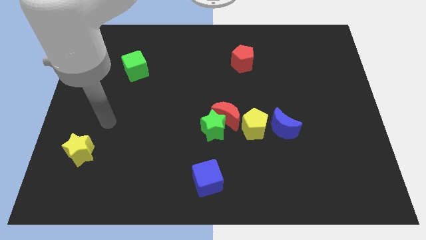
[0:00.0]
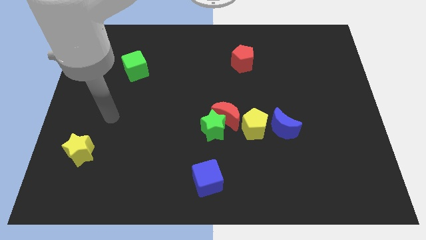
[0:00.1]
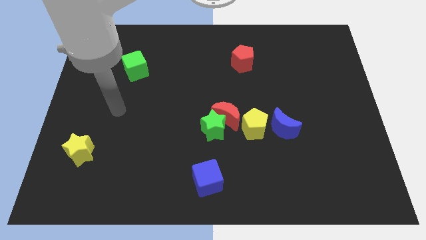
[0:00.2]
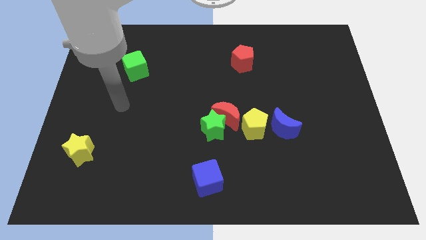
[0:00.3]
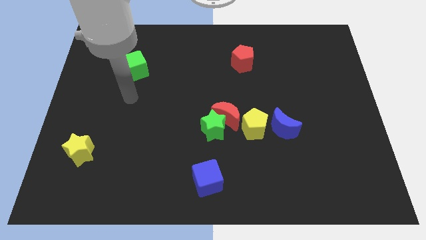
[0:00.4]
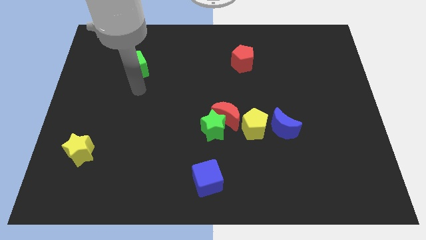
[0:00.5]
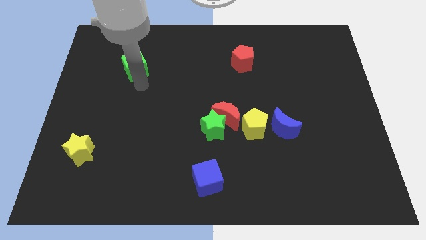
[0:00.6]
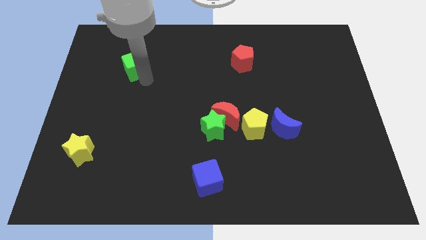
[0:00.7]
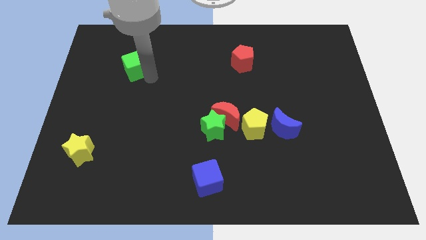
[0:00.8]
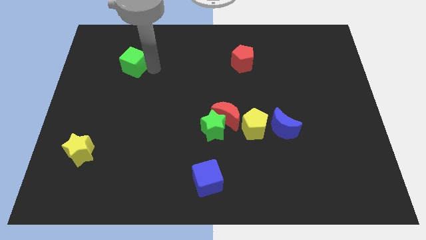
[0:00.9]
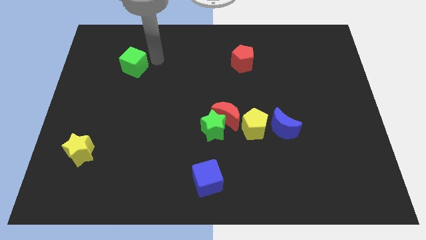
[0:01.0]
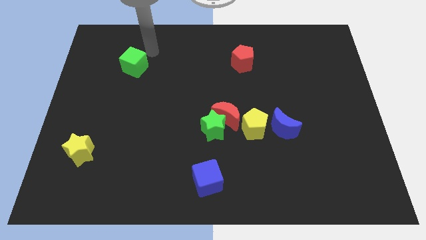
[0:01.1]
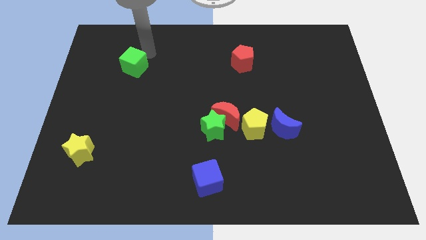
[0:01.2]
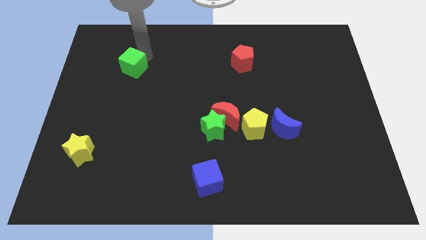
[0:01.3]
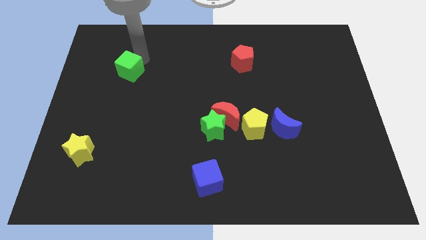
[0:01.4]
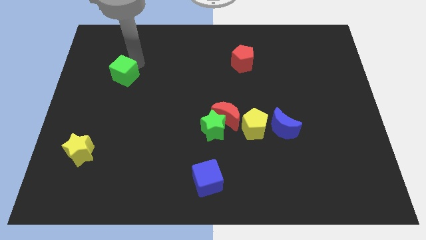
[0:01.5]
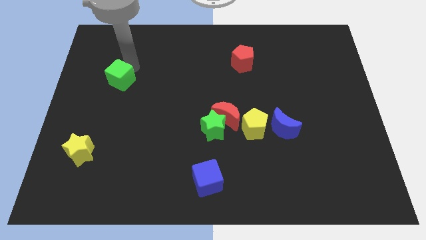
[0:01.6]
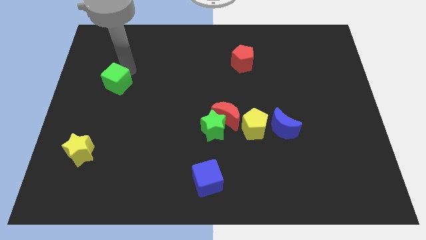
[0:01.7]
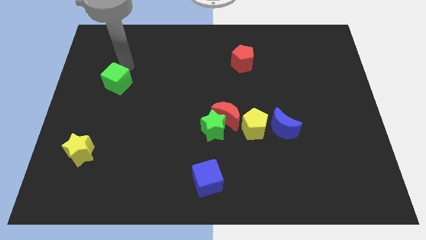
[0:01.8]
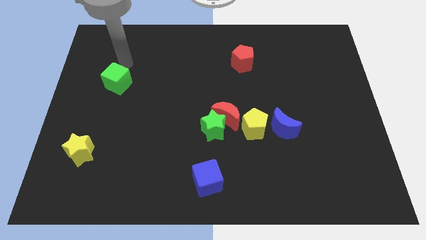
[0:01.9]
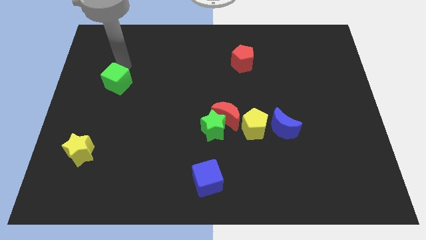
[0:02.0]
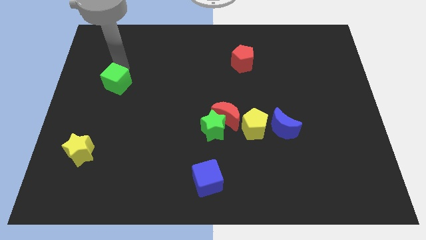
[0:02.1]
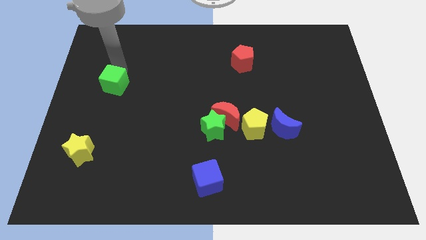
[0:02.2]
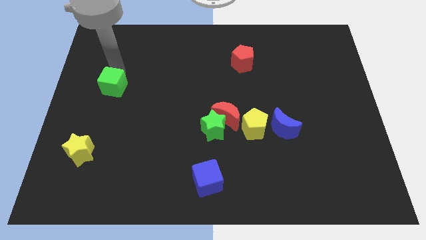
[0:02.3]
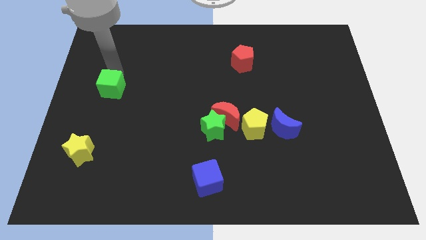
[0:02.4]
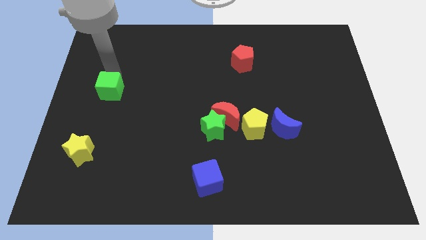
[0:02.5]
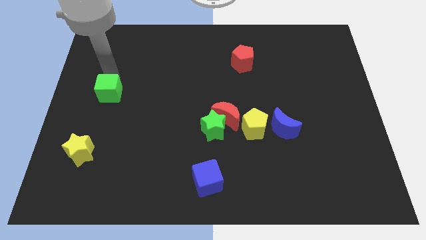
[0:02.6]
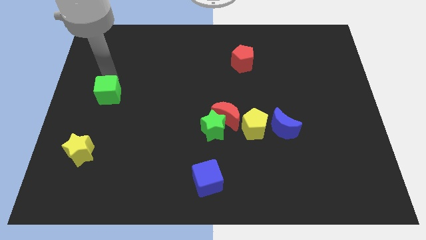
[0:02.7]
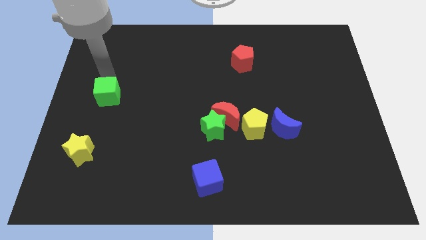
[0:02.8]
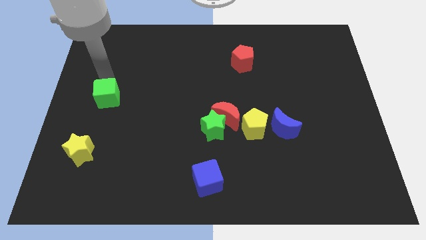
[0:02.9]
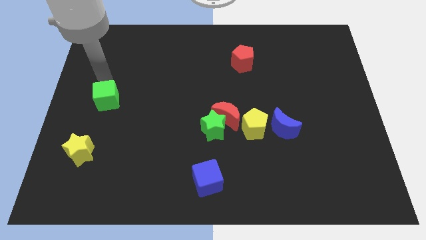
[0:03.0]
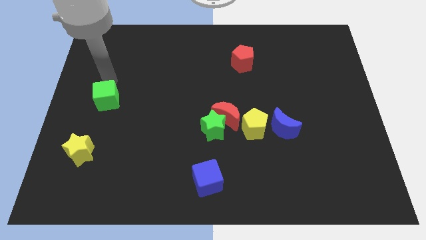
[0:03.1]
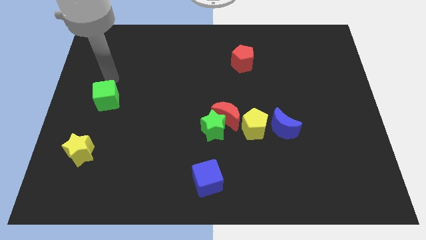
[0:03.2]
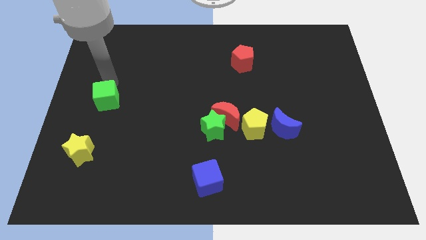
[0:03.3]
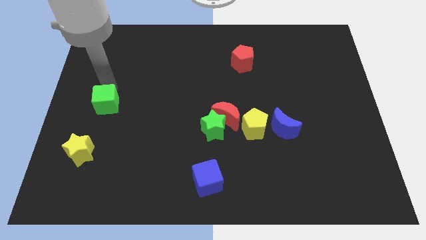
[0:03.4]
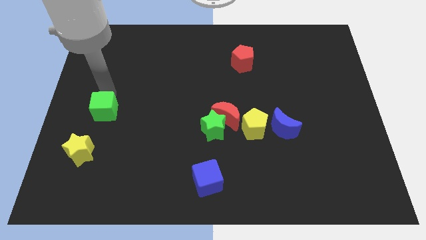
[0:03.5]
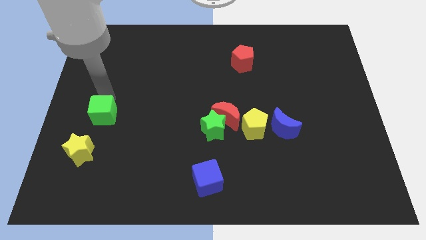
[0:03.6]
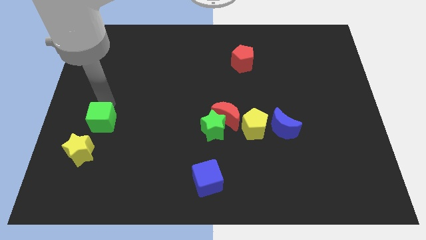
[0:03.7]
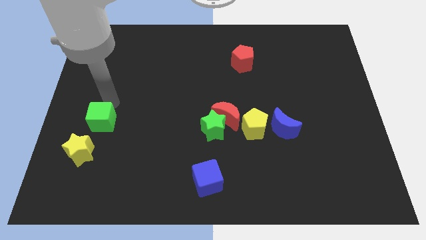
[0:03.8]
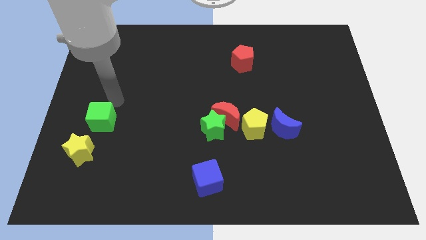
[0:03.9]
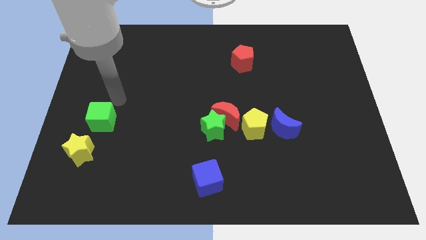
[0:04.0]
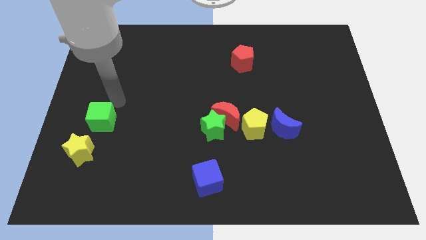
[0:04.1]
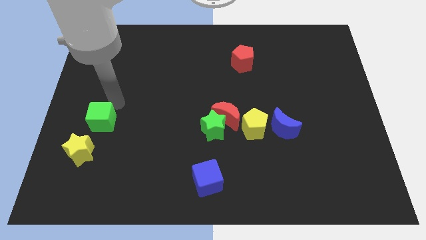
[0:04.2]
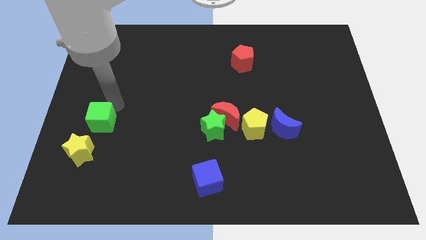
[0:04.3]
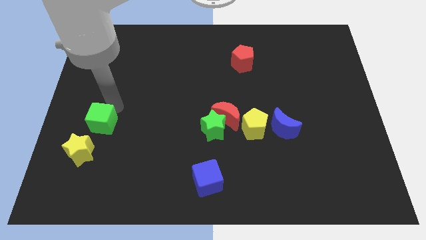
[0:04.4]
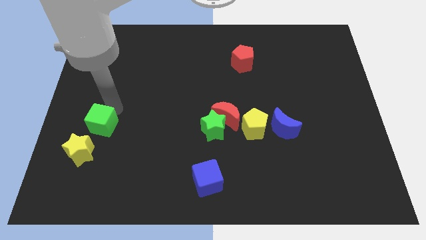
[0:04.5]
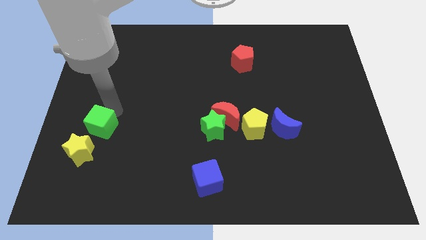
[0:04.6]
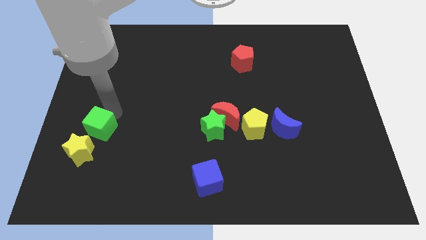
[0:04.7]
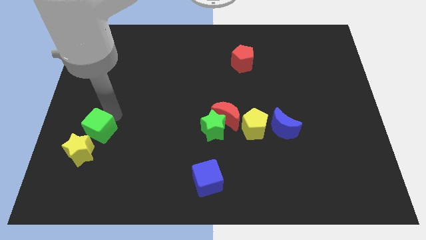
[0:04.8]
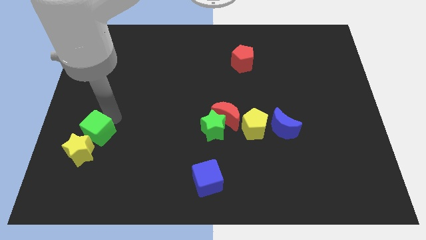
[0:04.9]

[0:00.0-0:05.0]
put the green cube next to the yellow star

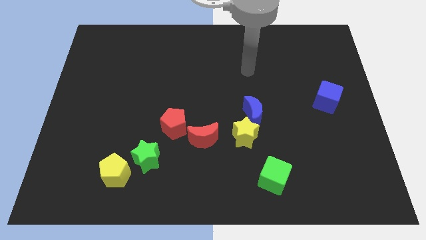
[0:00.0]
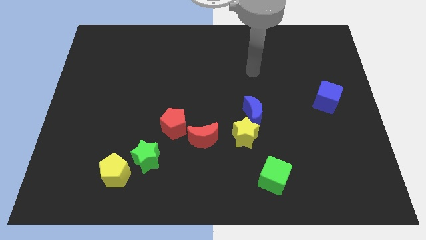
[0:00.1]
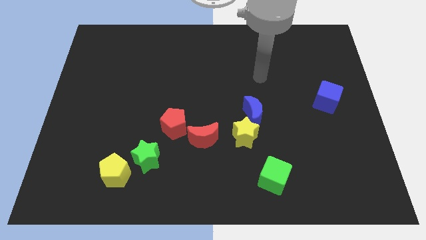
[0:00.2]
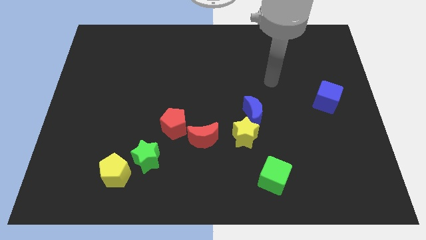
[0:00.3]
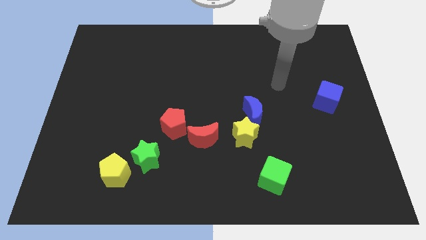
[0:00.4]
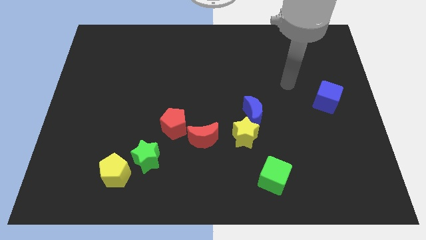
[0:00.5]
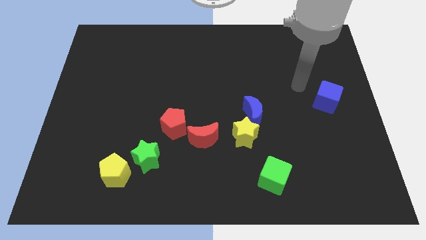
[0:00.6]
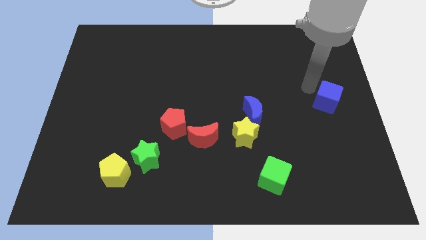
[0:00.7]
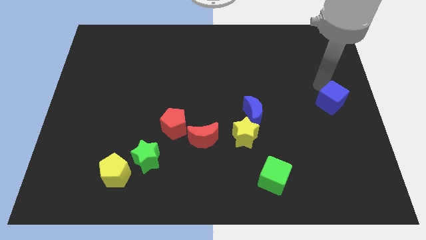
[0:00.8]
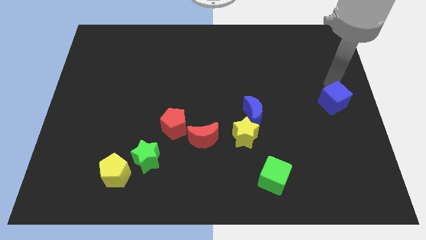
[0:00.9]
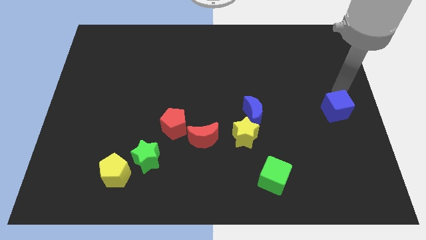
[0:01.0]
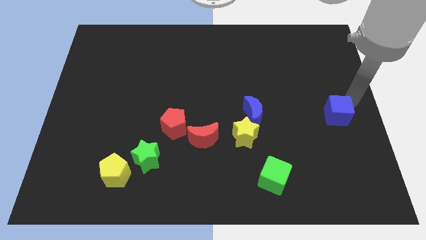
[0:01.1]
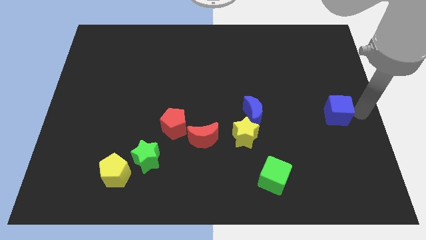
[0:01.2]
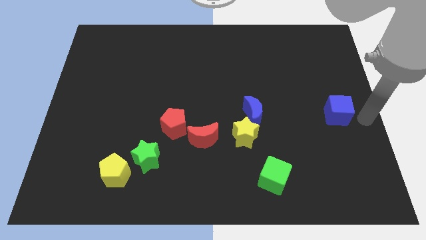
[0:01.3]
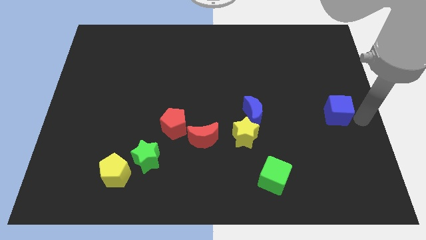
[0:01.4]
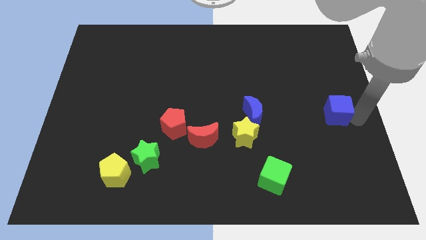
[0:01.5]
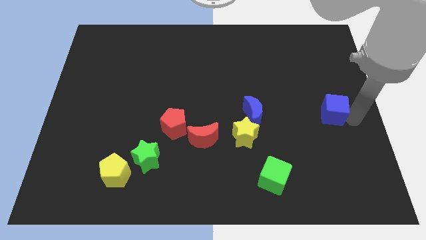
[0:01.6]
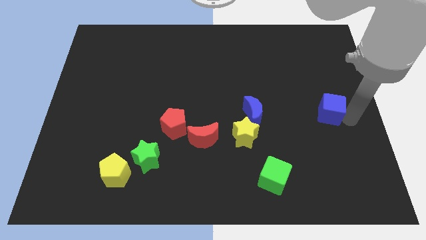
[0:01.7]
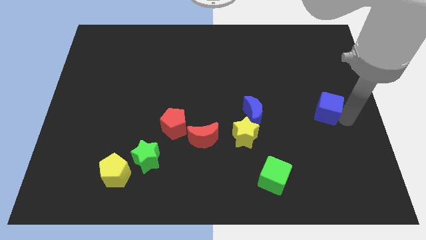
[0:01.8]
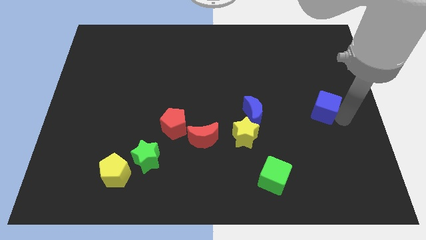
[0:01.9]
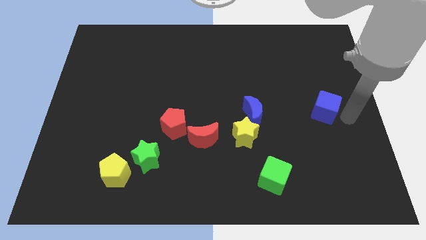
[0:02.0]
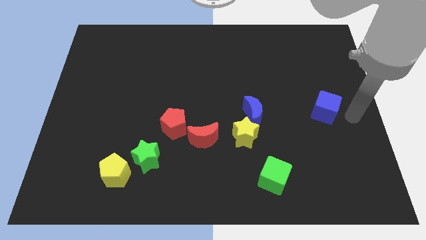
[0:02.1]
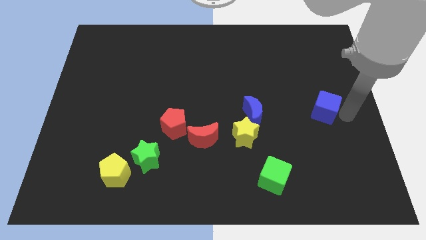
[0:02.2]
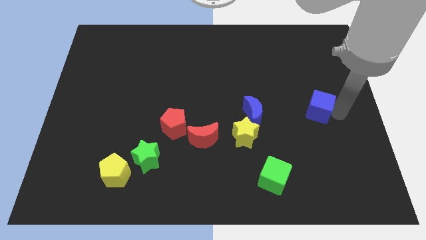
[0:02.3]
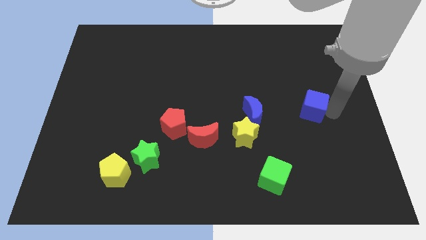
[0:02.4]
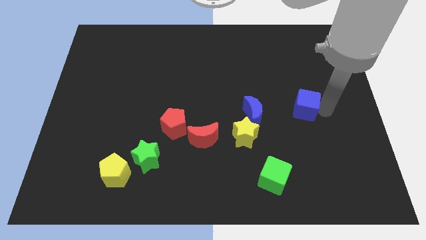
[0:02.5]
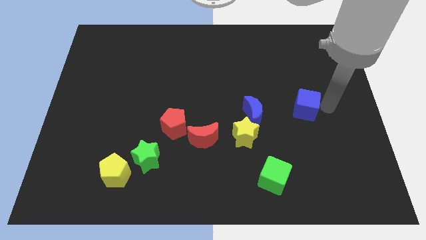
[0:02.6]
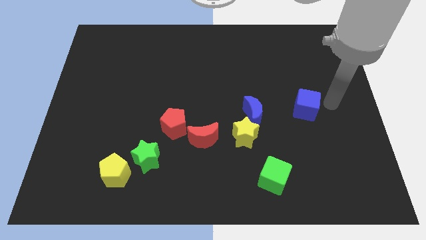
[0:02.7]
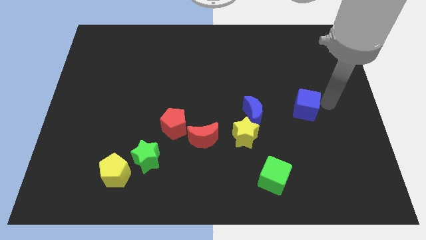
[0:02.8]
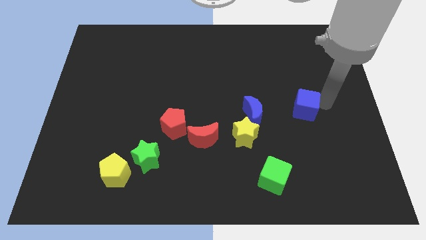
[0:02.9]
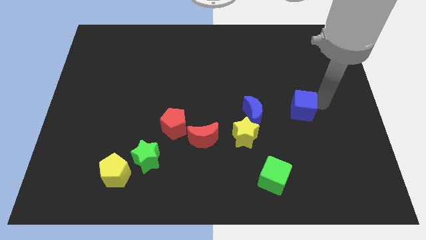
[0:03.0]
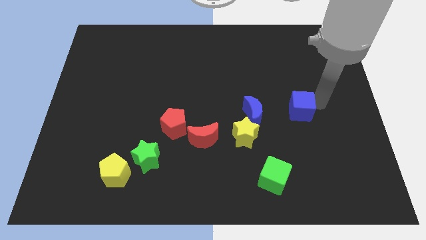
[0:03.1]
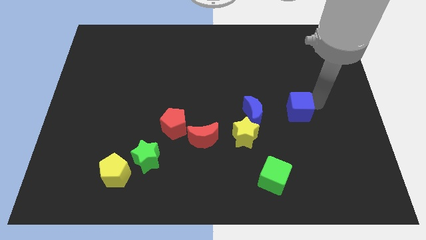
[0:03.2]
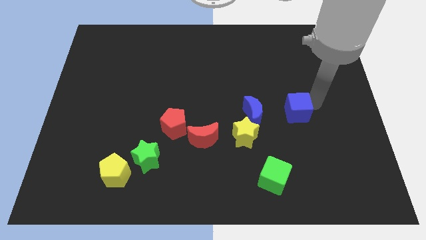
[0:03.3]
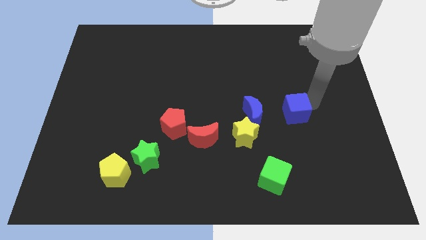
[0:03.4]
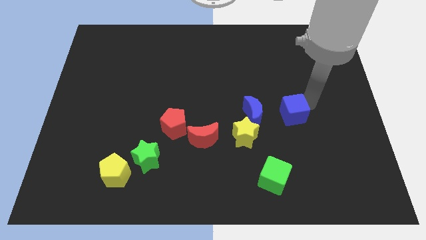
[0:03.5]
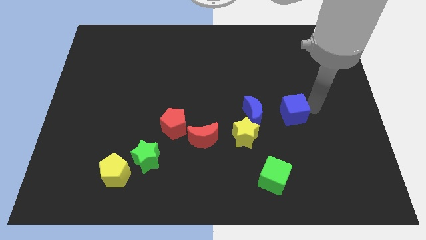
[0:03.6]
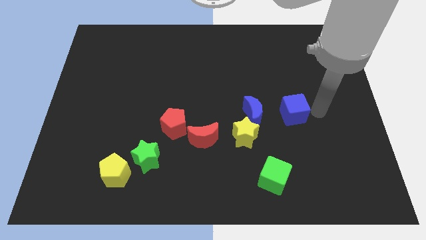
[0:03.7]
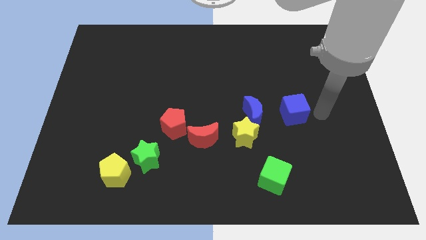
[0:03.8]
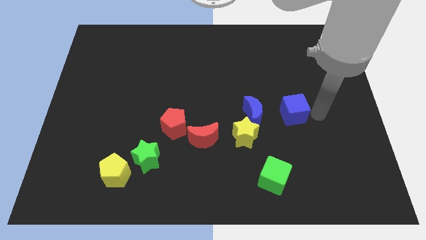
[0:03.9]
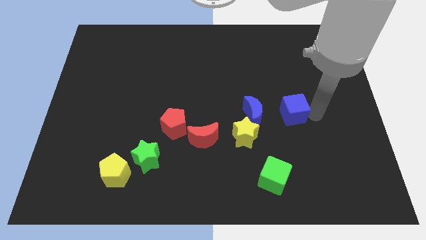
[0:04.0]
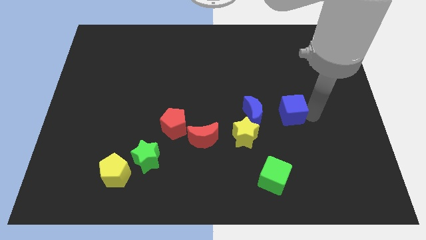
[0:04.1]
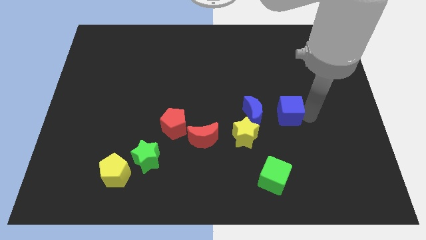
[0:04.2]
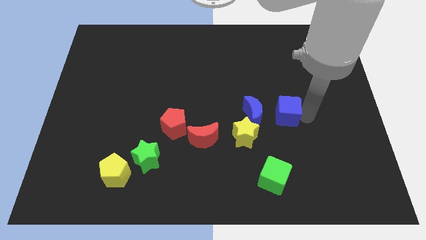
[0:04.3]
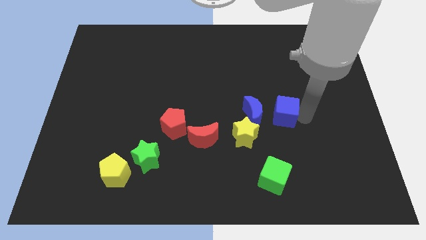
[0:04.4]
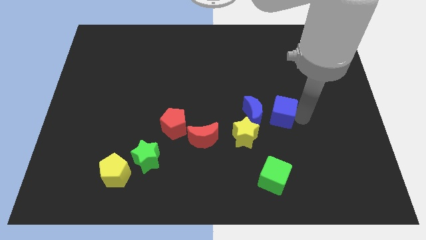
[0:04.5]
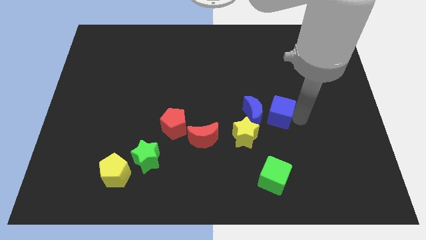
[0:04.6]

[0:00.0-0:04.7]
push the blue cube to the blue moon
